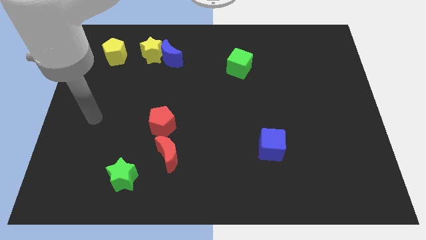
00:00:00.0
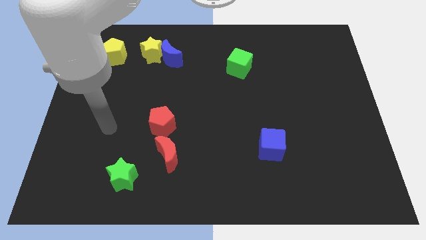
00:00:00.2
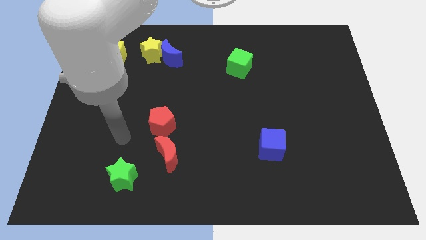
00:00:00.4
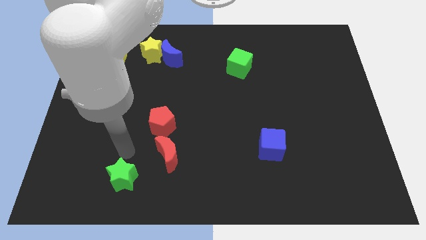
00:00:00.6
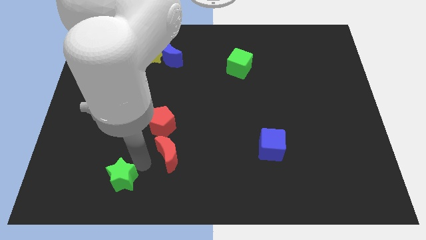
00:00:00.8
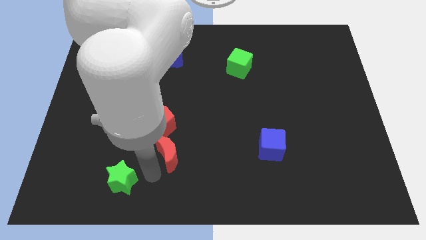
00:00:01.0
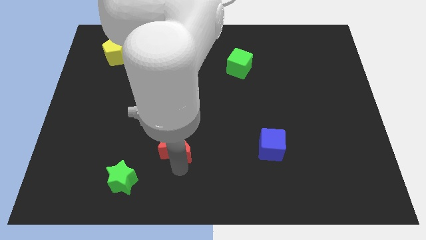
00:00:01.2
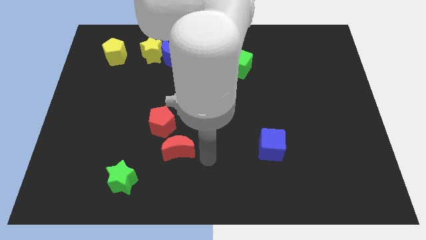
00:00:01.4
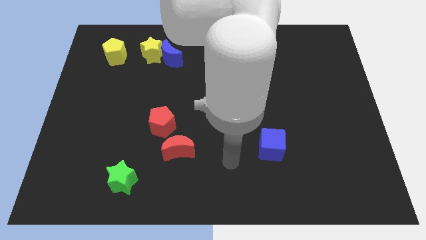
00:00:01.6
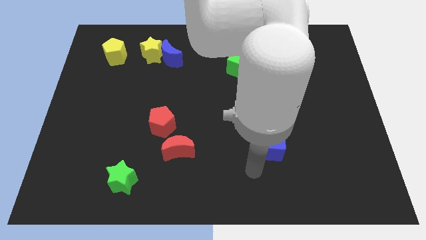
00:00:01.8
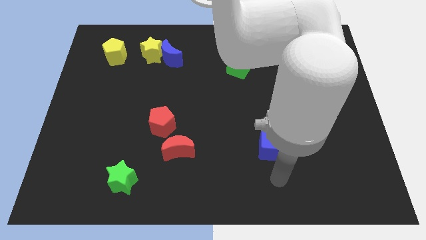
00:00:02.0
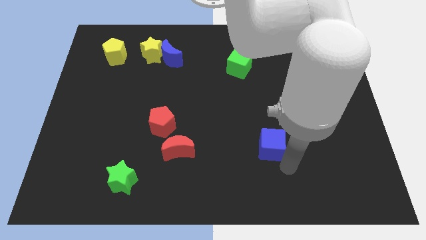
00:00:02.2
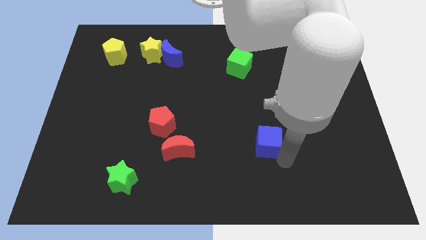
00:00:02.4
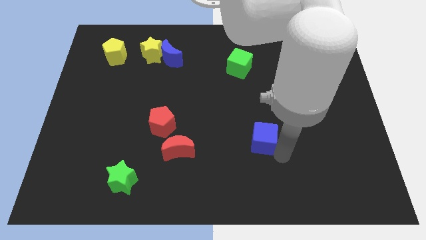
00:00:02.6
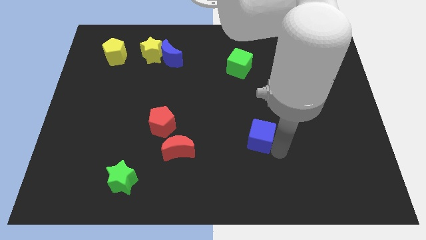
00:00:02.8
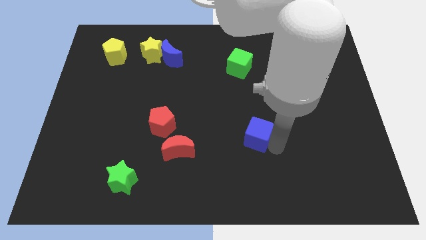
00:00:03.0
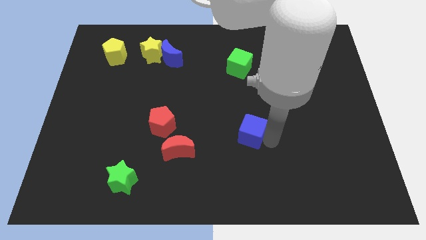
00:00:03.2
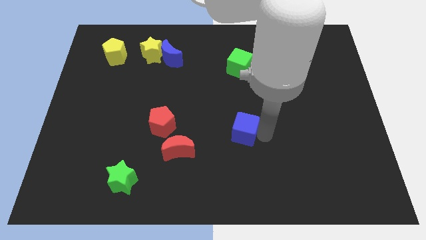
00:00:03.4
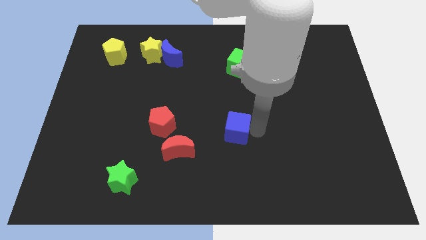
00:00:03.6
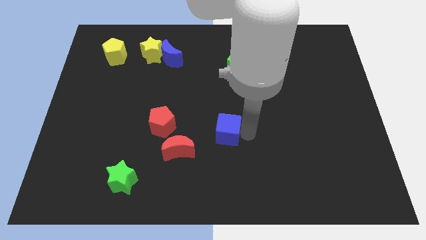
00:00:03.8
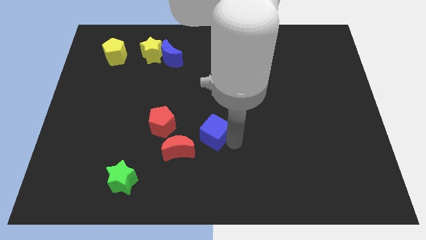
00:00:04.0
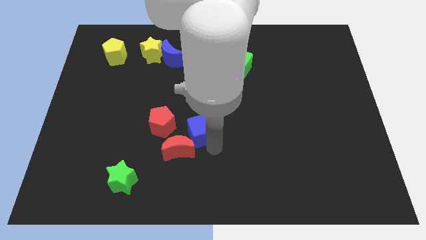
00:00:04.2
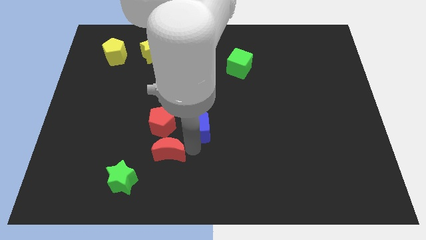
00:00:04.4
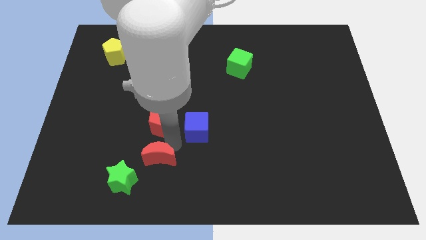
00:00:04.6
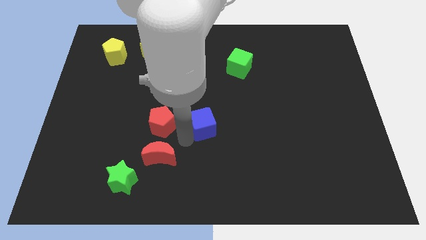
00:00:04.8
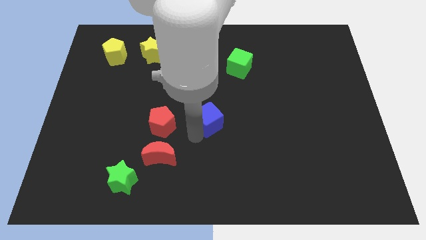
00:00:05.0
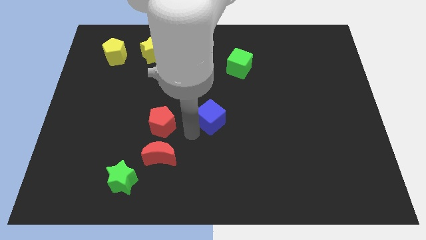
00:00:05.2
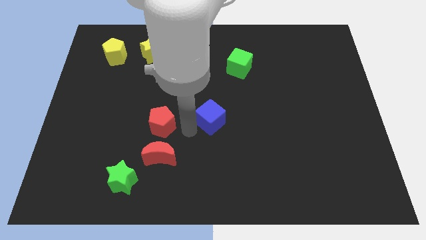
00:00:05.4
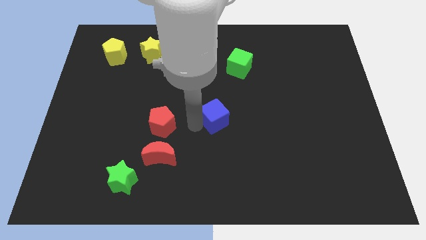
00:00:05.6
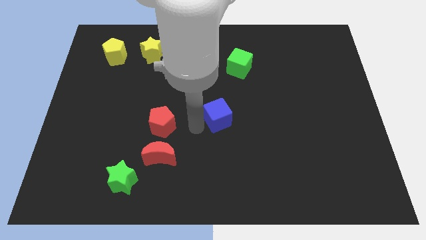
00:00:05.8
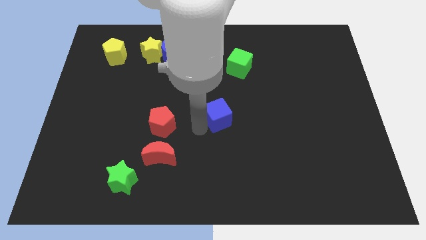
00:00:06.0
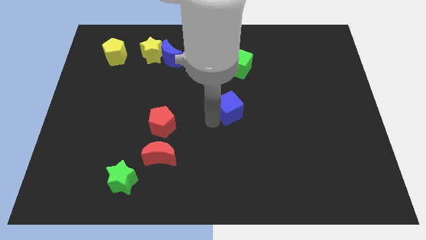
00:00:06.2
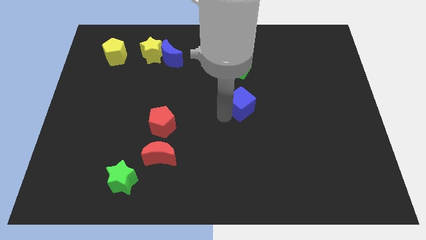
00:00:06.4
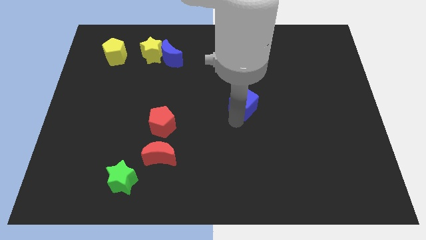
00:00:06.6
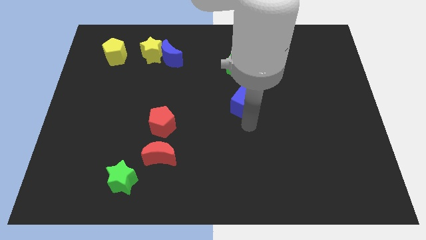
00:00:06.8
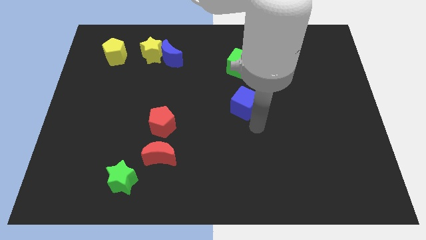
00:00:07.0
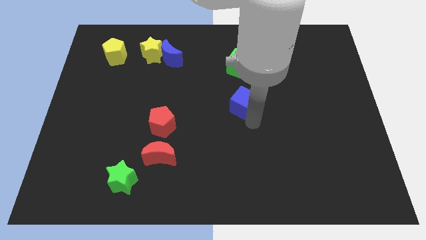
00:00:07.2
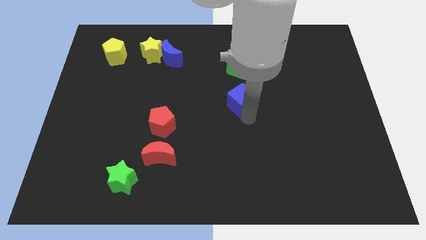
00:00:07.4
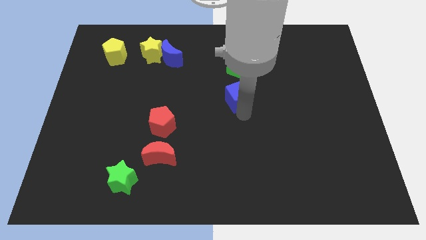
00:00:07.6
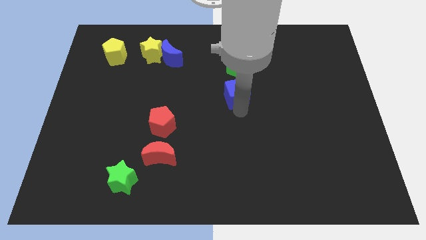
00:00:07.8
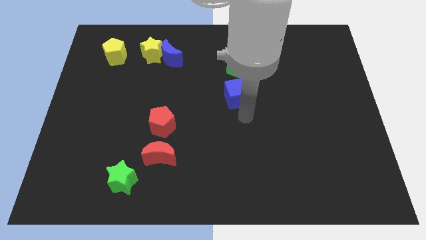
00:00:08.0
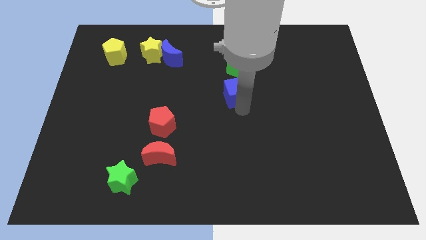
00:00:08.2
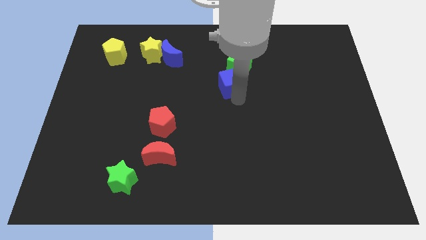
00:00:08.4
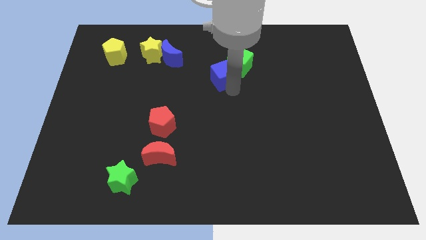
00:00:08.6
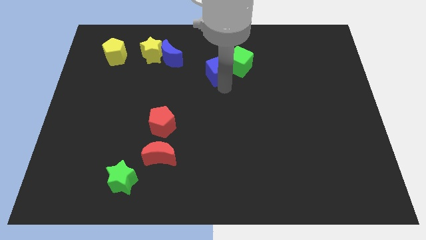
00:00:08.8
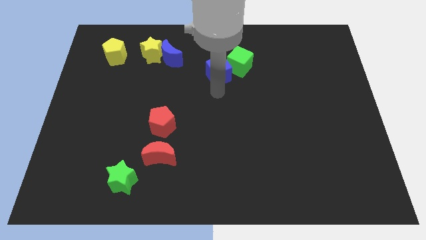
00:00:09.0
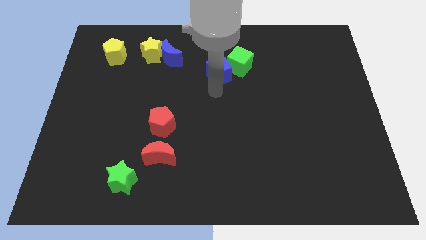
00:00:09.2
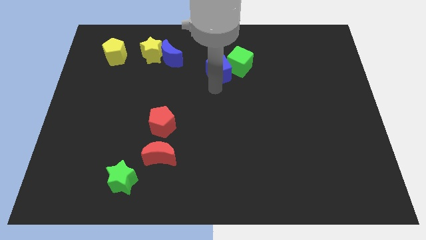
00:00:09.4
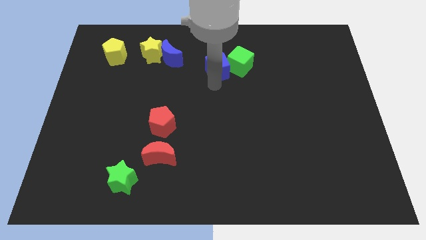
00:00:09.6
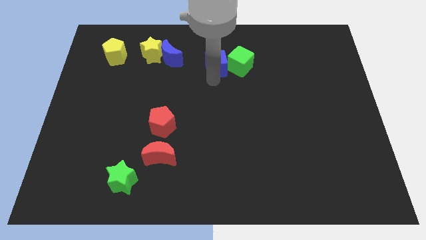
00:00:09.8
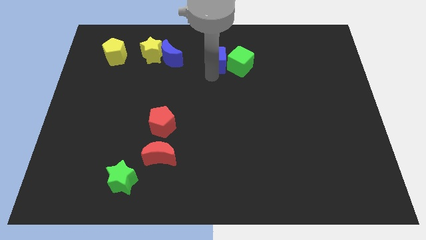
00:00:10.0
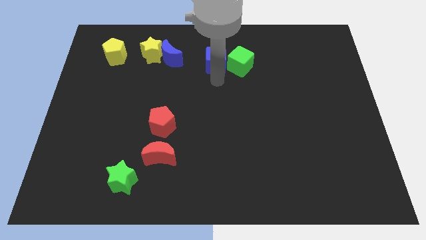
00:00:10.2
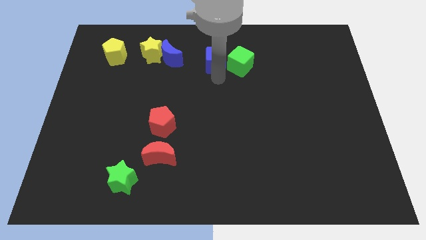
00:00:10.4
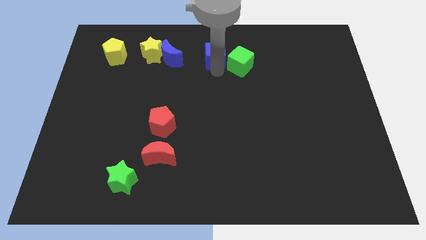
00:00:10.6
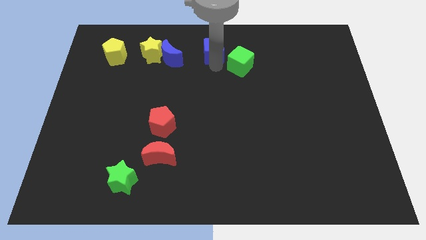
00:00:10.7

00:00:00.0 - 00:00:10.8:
move the blue cube to the top

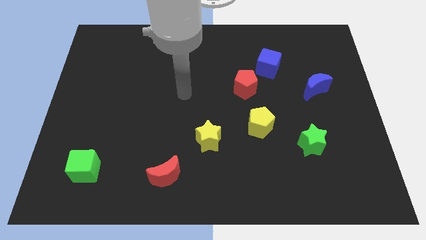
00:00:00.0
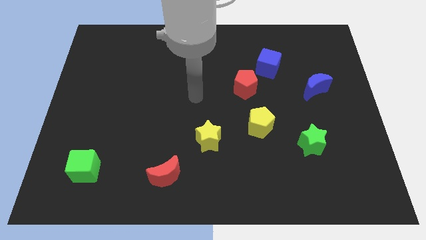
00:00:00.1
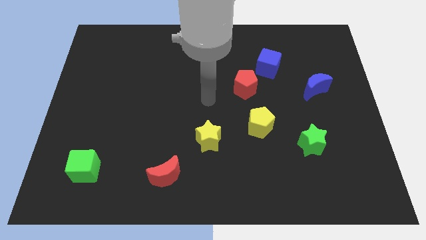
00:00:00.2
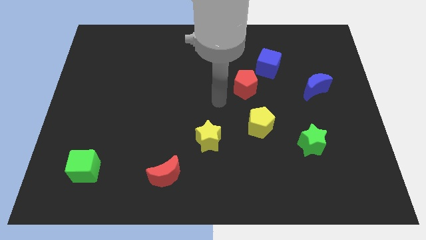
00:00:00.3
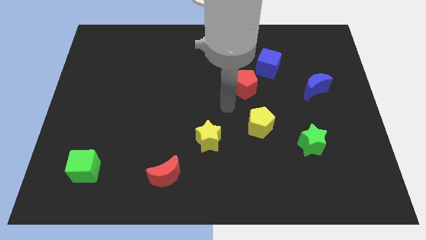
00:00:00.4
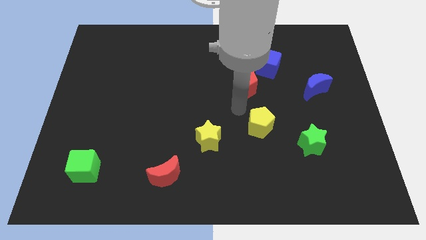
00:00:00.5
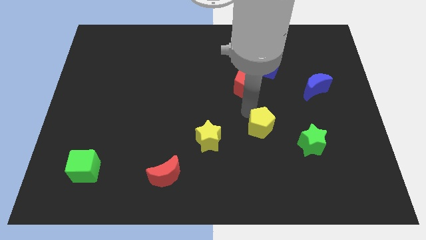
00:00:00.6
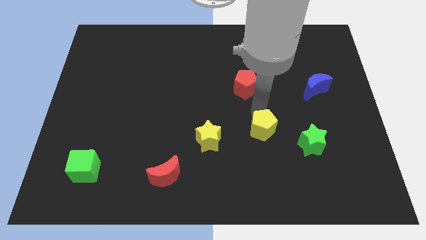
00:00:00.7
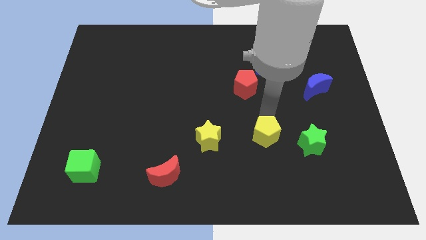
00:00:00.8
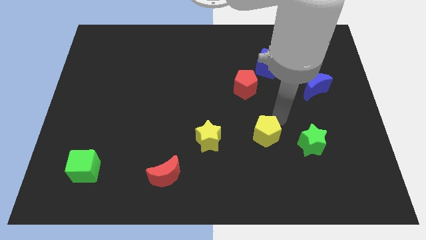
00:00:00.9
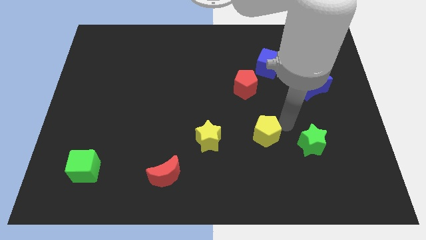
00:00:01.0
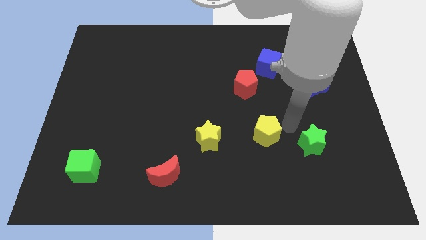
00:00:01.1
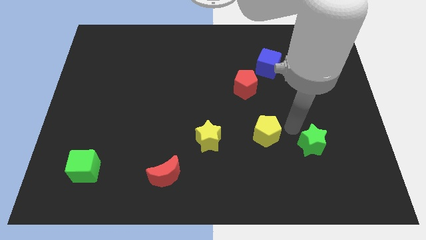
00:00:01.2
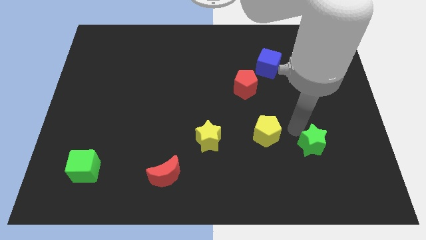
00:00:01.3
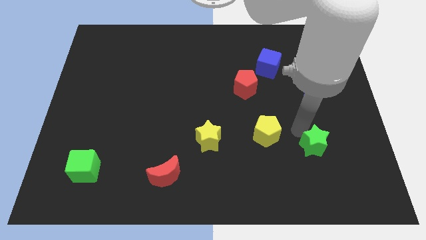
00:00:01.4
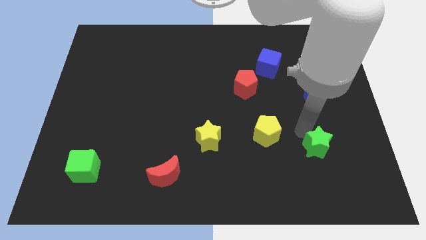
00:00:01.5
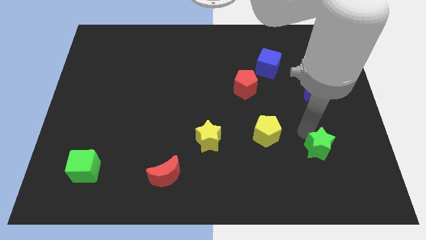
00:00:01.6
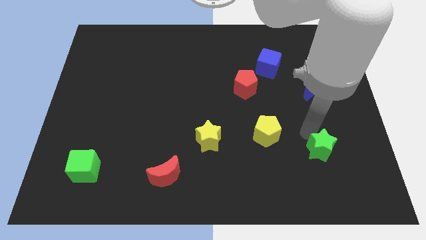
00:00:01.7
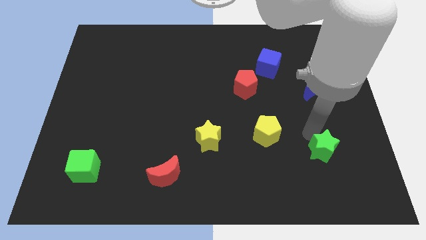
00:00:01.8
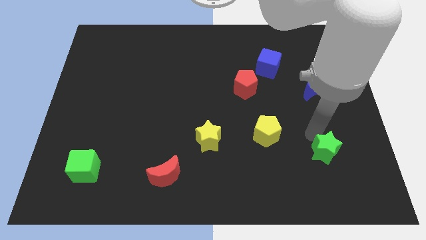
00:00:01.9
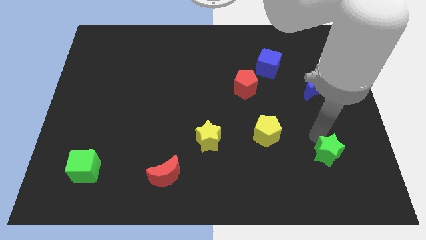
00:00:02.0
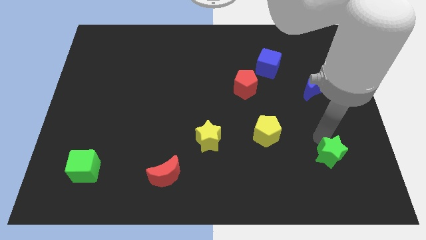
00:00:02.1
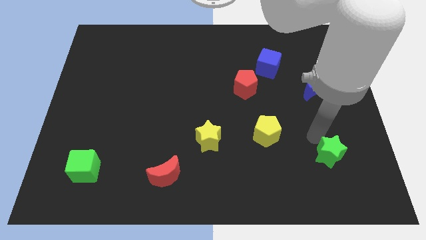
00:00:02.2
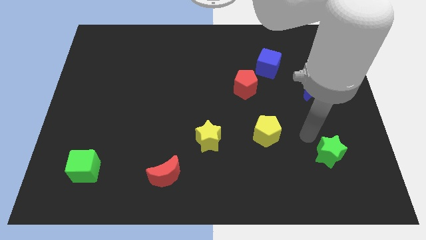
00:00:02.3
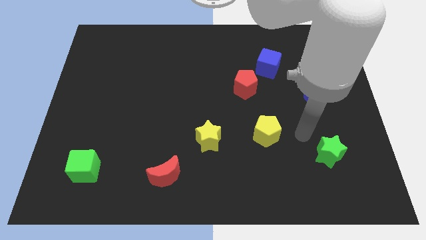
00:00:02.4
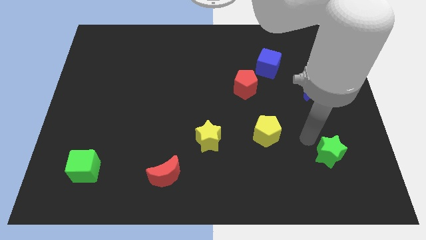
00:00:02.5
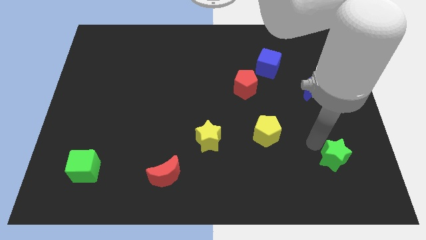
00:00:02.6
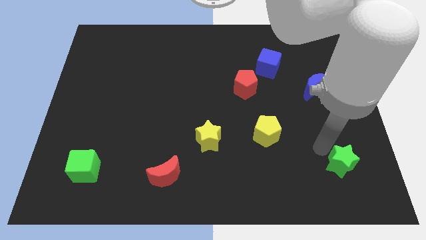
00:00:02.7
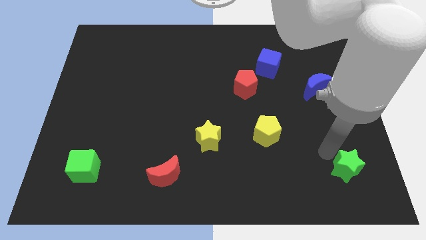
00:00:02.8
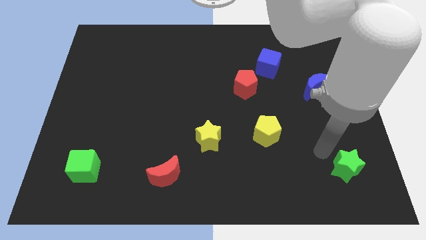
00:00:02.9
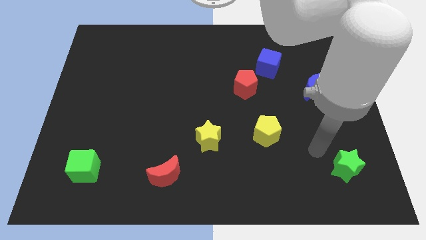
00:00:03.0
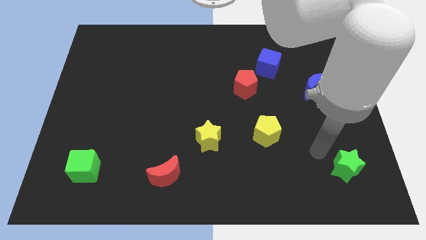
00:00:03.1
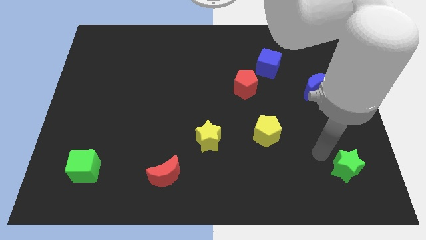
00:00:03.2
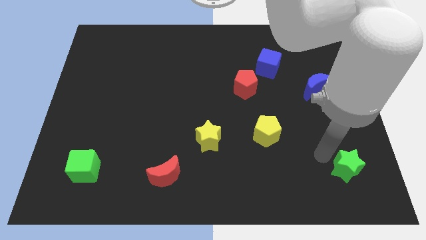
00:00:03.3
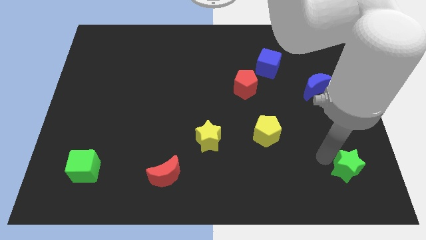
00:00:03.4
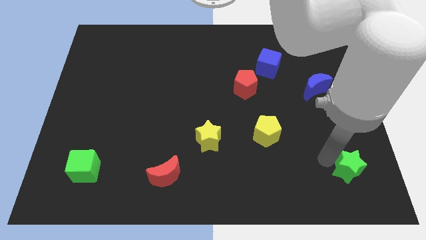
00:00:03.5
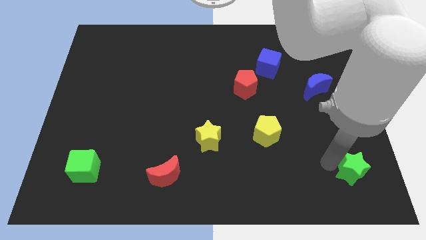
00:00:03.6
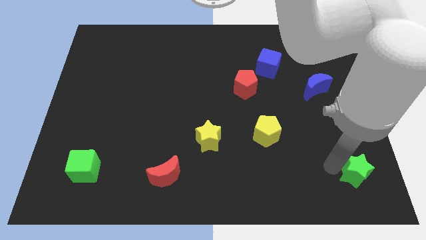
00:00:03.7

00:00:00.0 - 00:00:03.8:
push the green star to the bottom right corner
